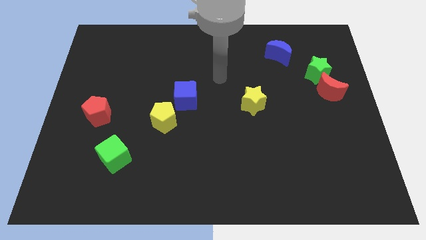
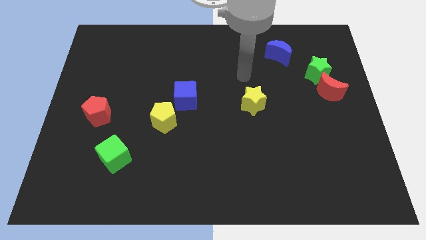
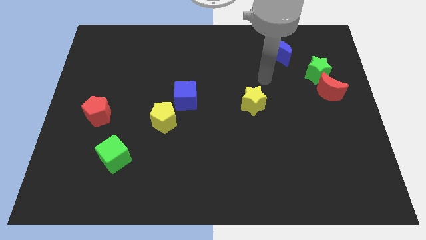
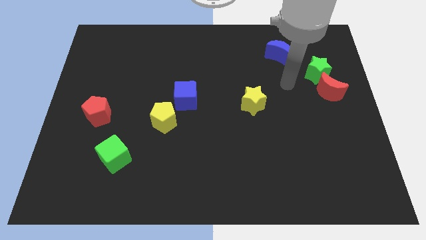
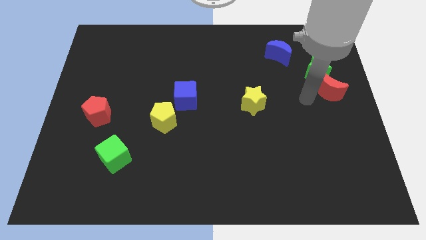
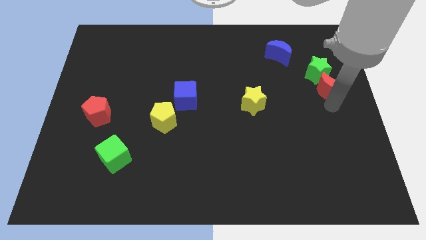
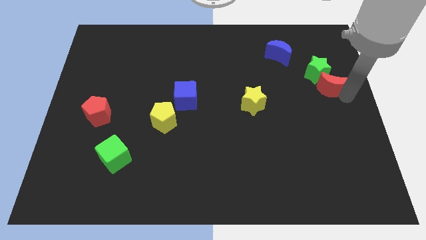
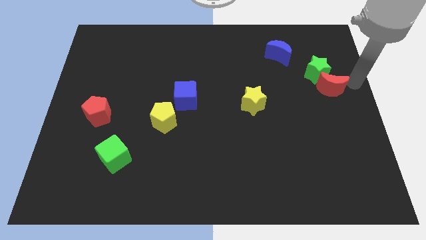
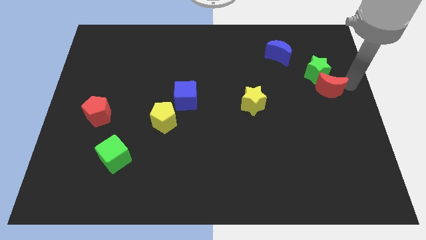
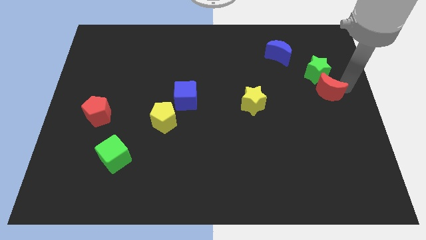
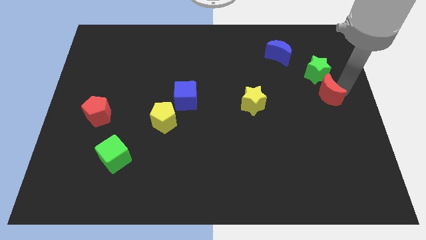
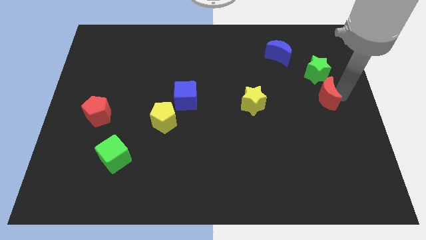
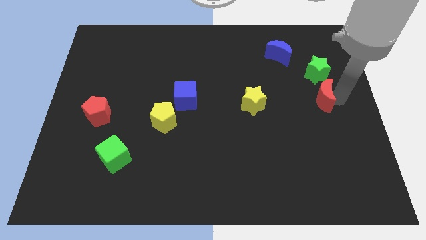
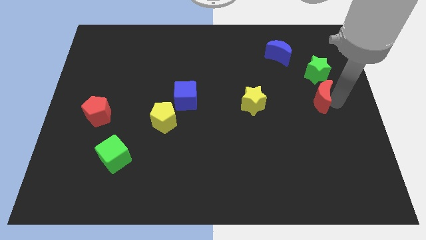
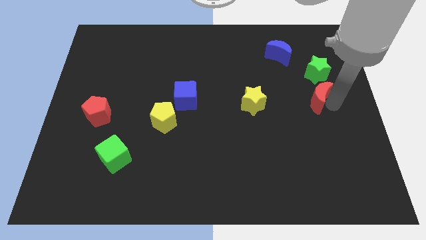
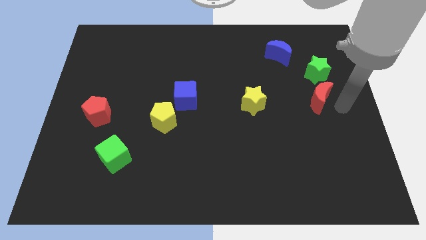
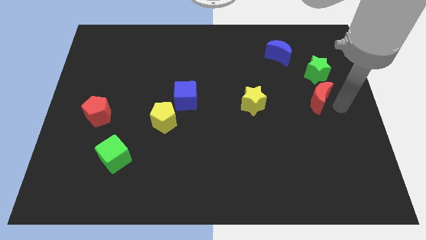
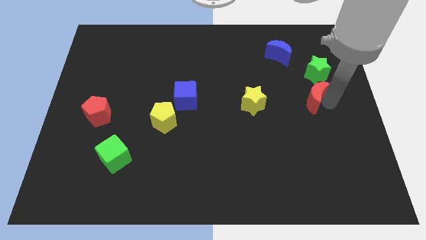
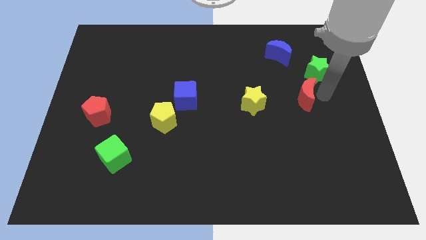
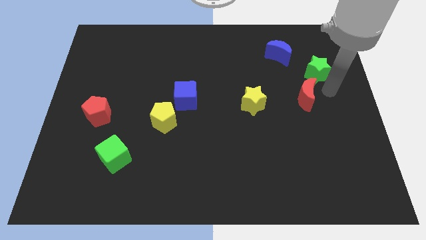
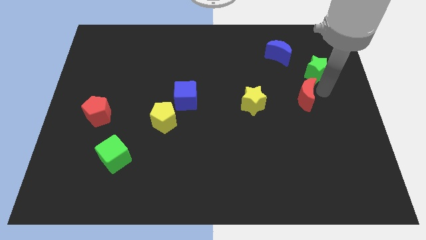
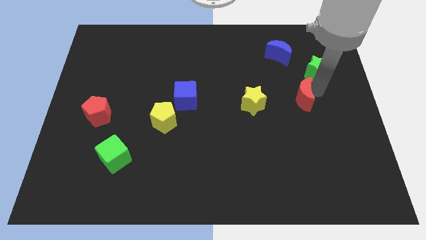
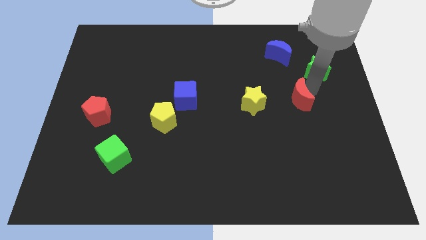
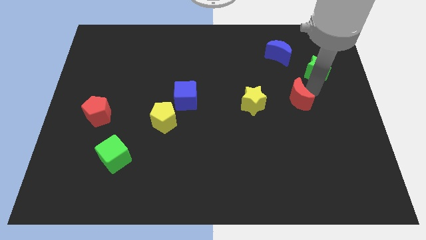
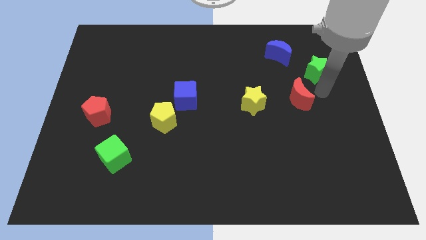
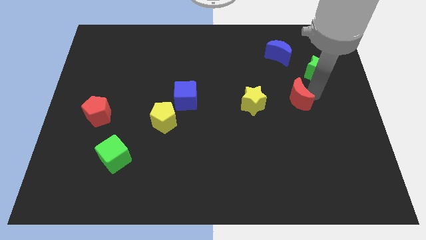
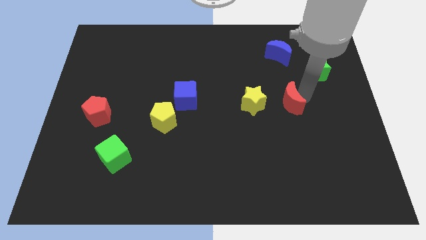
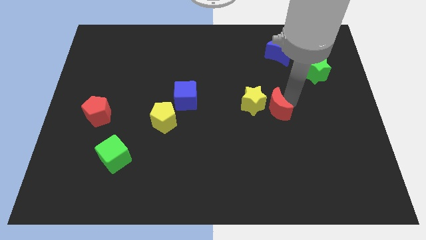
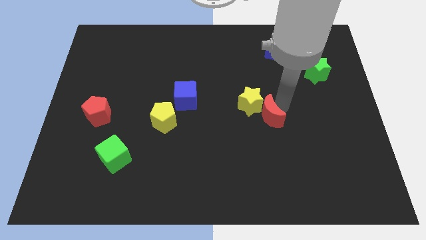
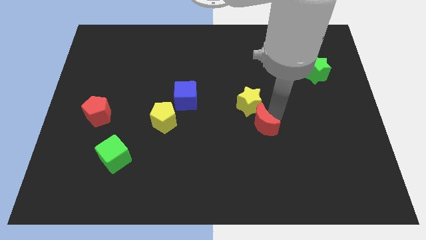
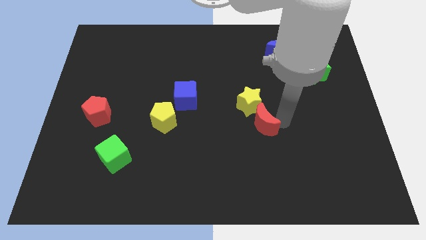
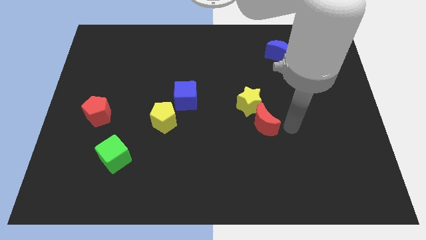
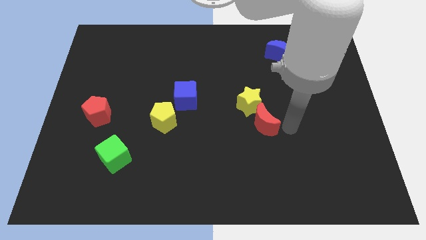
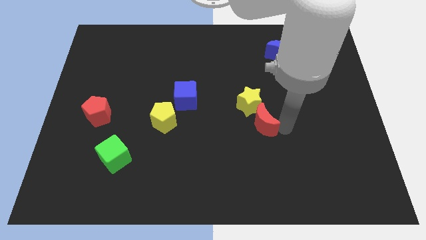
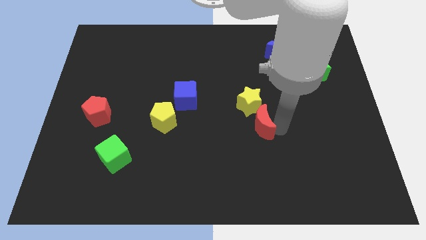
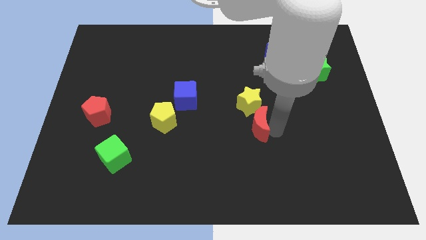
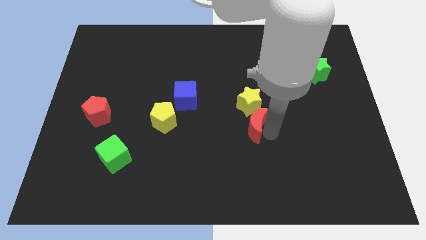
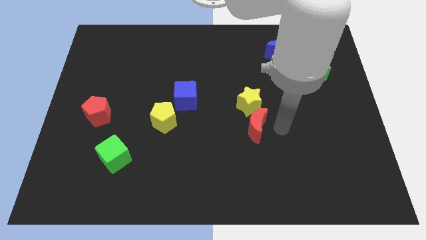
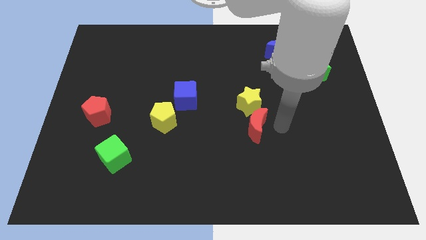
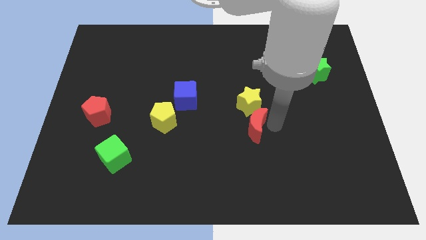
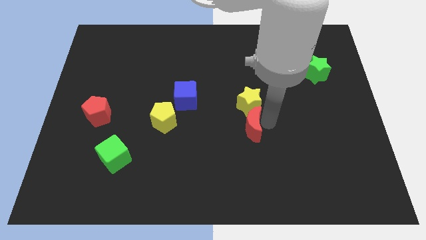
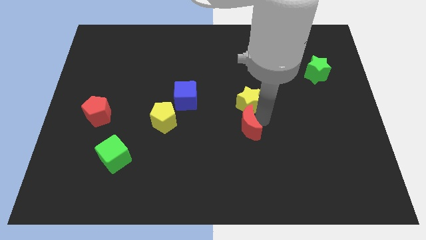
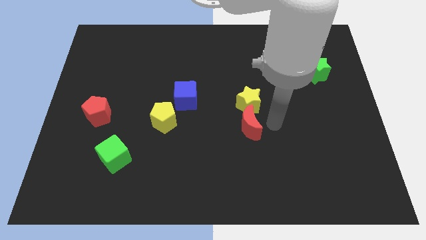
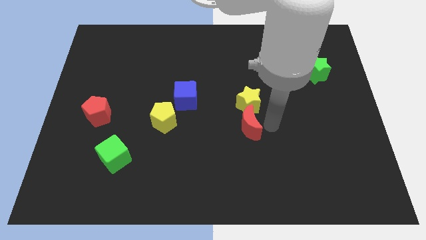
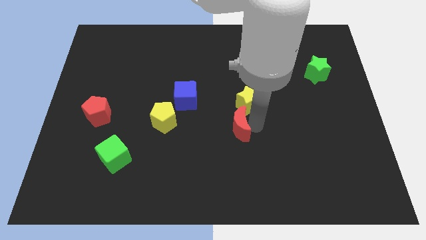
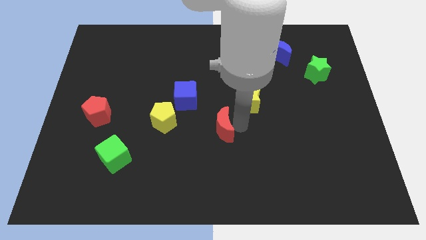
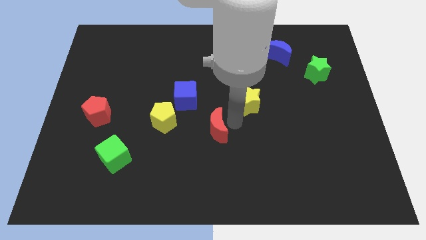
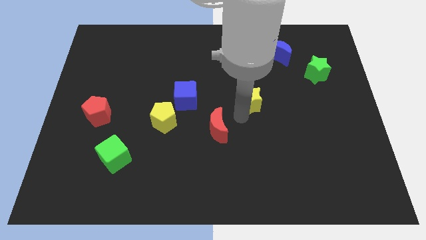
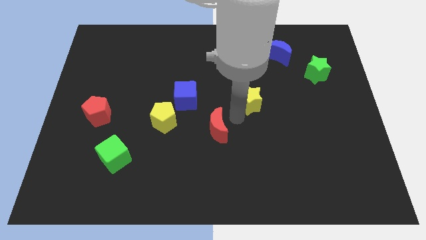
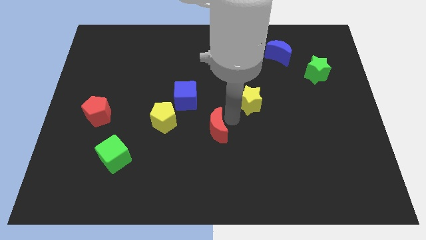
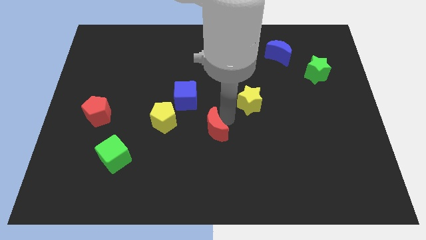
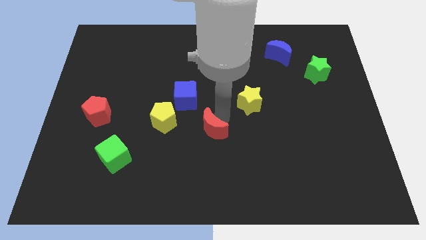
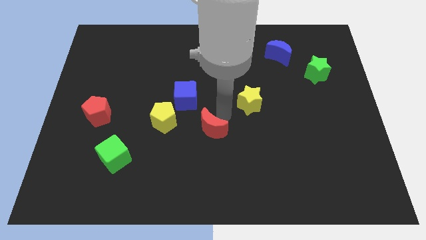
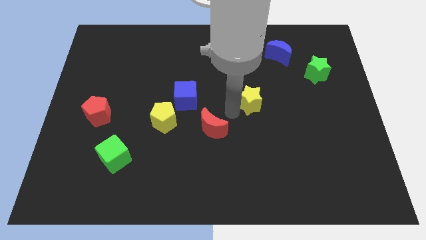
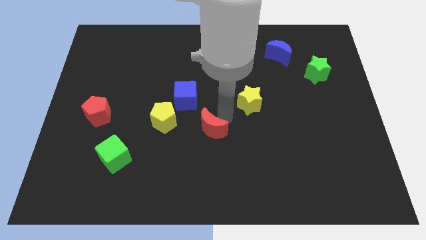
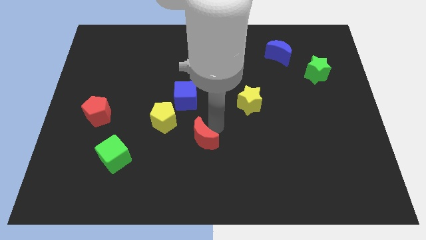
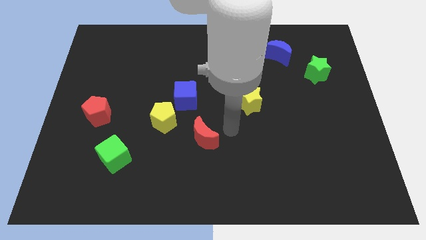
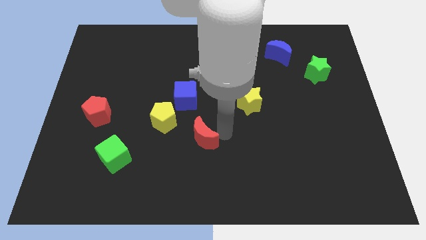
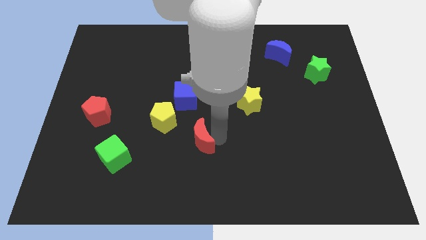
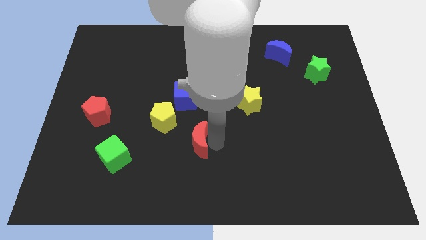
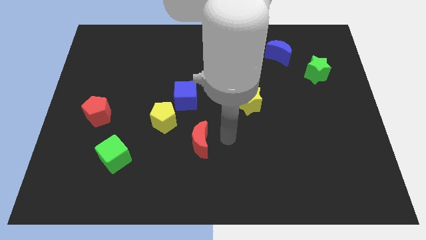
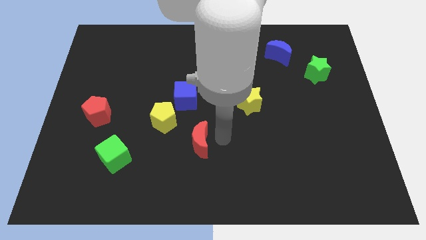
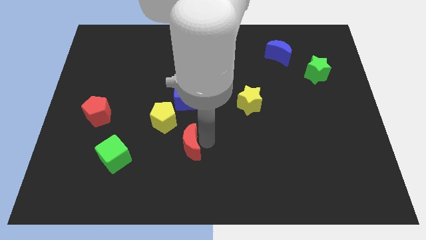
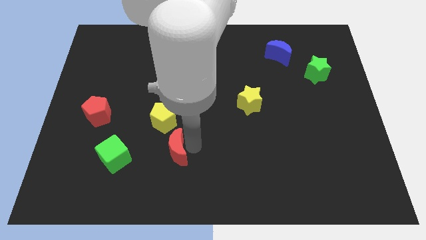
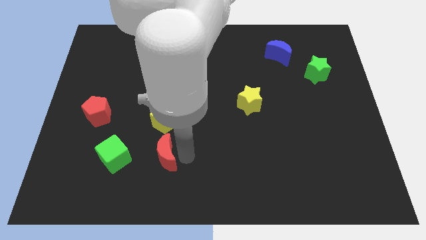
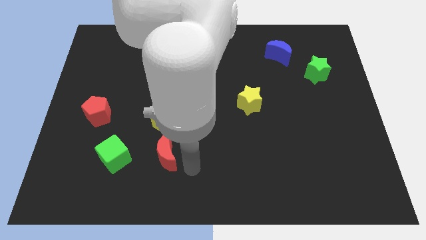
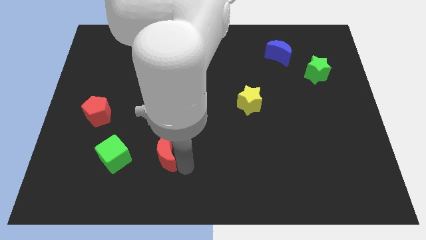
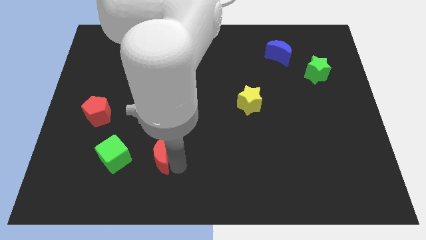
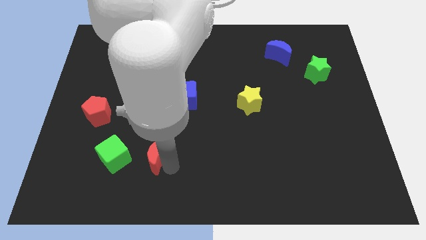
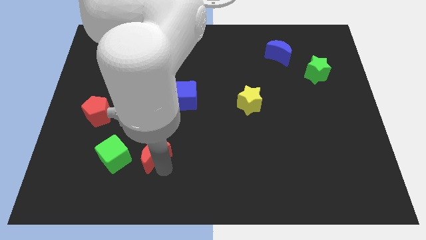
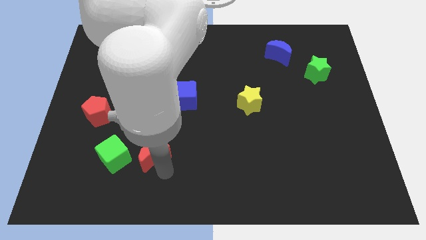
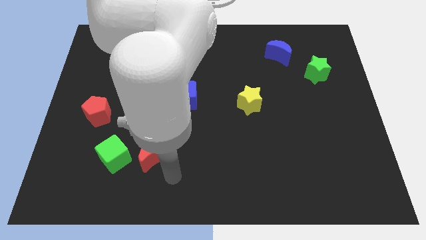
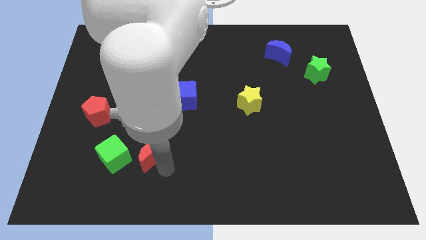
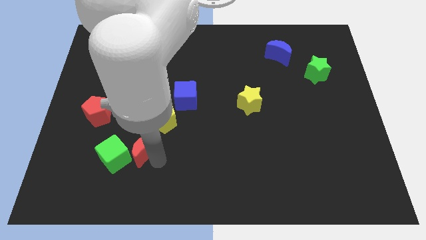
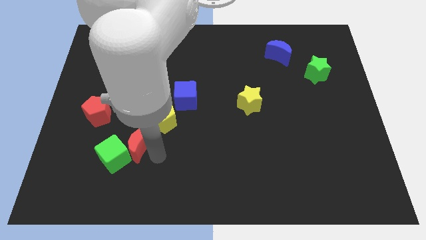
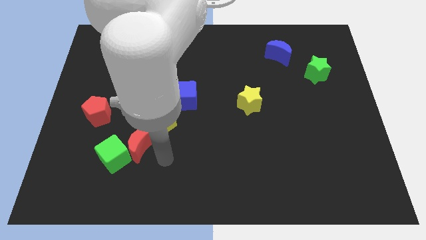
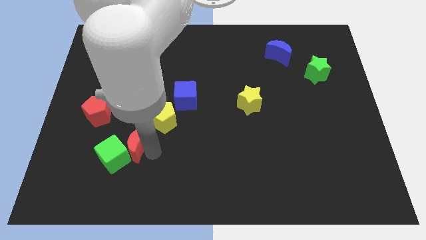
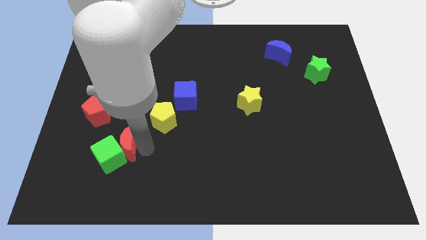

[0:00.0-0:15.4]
slide the red moon diagonally down and to the right of the red pentagon
